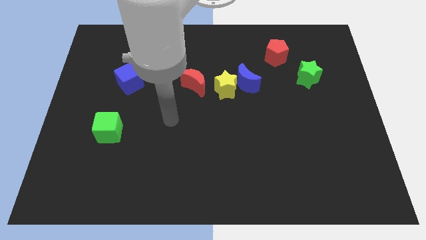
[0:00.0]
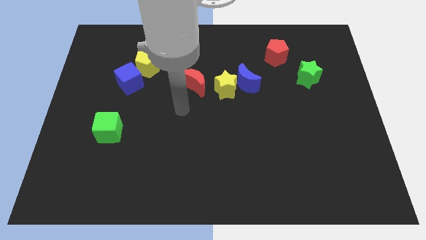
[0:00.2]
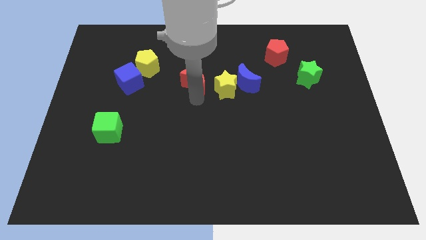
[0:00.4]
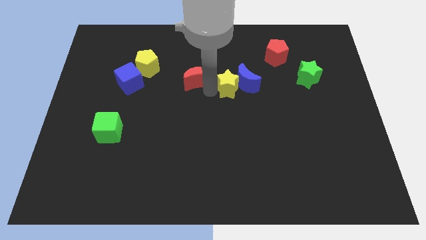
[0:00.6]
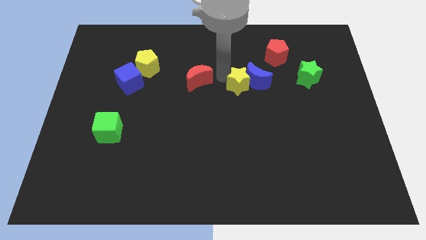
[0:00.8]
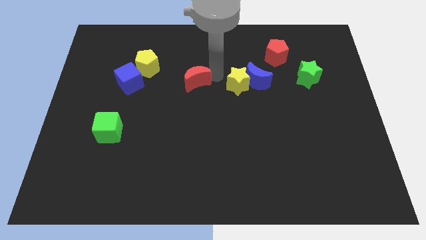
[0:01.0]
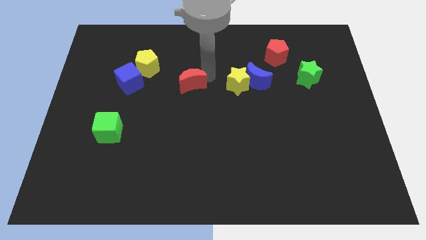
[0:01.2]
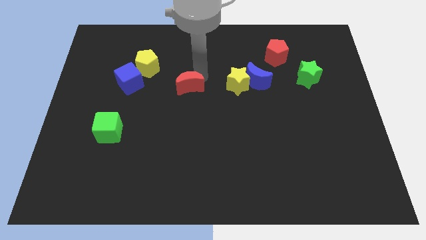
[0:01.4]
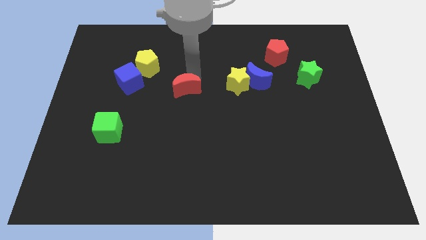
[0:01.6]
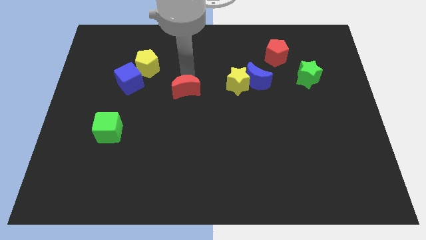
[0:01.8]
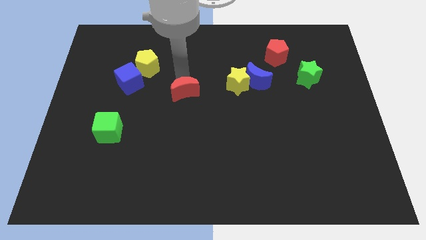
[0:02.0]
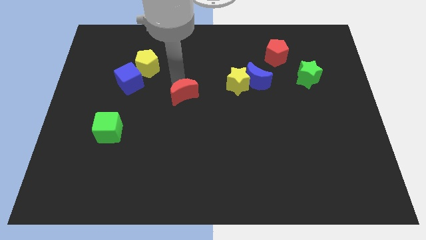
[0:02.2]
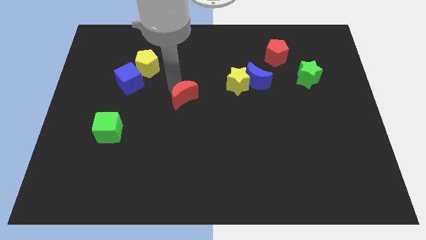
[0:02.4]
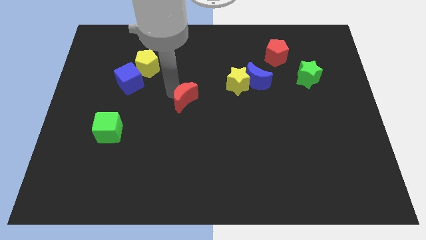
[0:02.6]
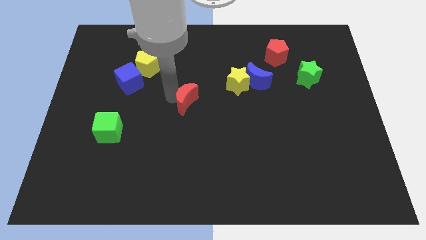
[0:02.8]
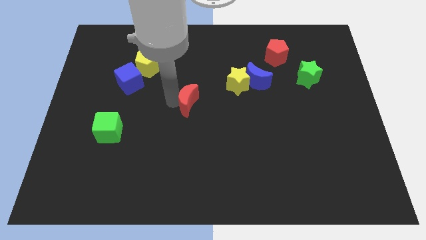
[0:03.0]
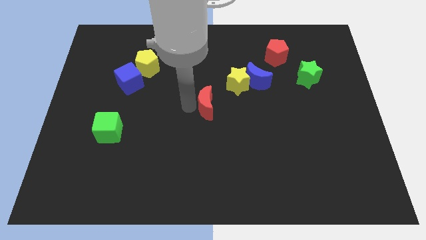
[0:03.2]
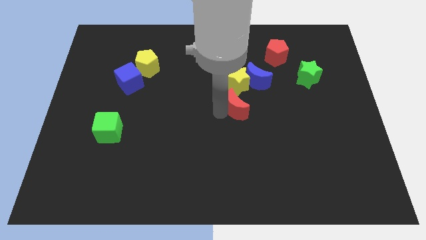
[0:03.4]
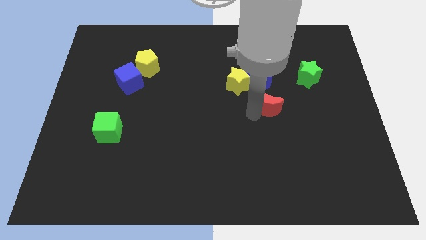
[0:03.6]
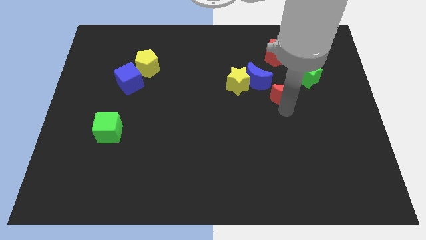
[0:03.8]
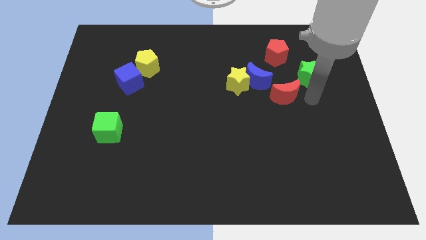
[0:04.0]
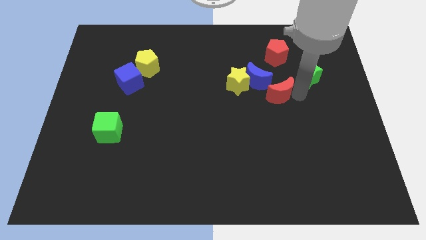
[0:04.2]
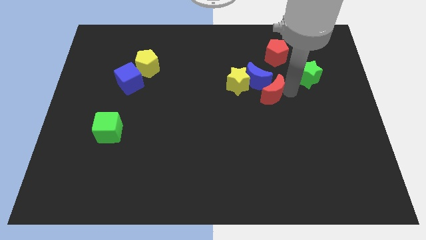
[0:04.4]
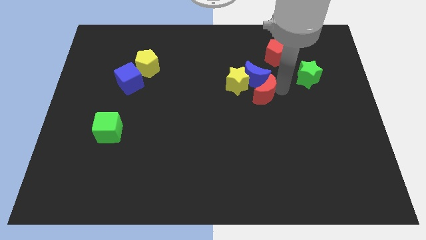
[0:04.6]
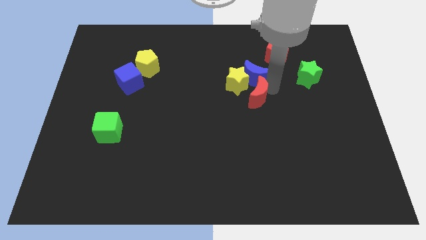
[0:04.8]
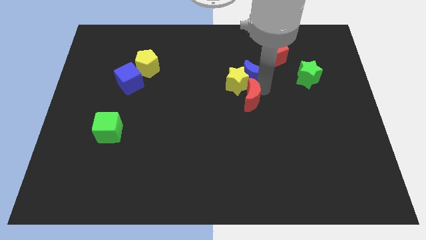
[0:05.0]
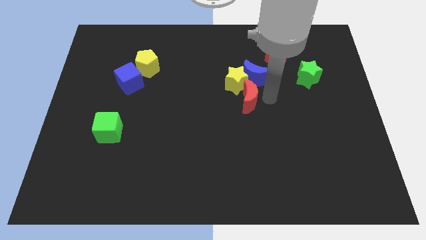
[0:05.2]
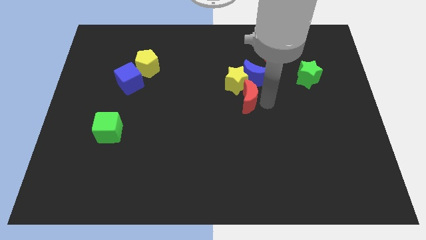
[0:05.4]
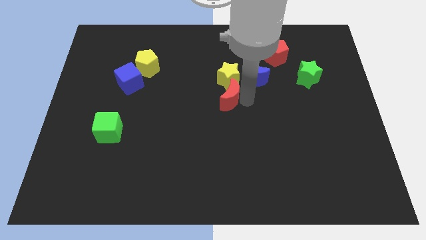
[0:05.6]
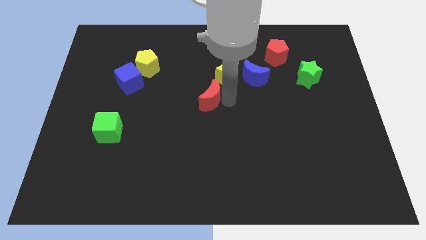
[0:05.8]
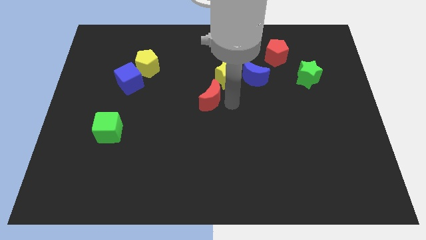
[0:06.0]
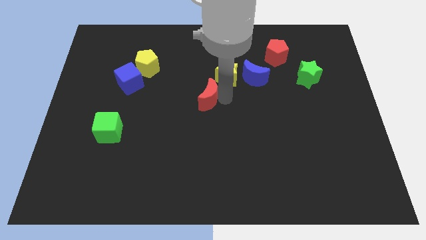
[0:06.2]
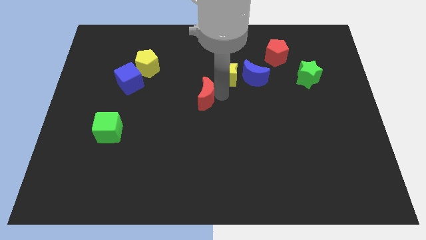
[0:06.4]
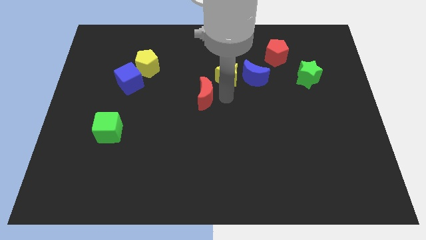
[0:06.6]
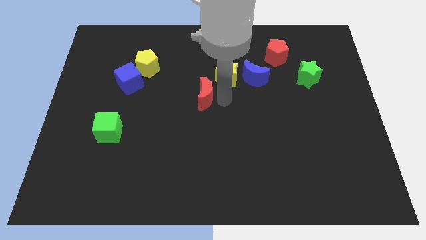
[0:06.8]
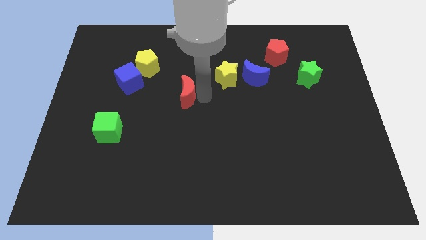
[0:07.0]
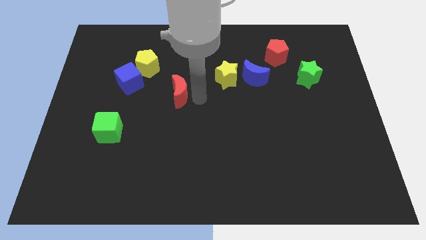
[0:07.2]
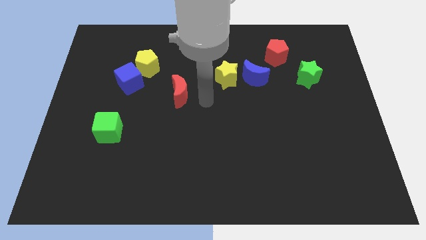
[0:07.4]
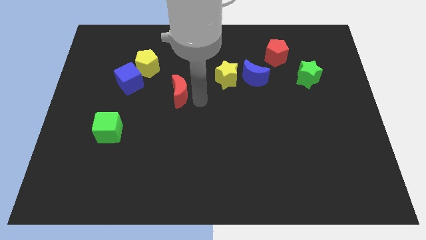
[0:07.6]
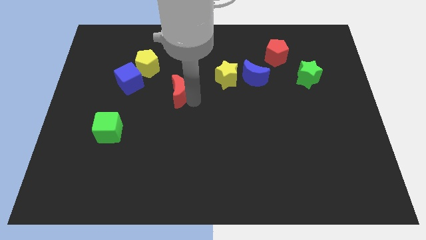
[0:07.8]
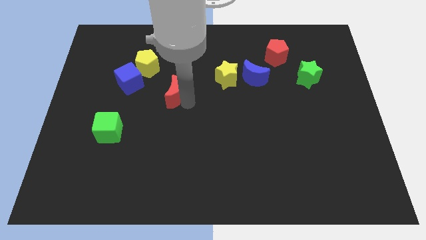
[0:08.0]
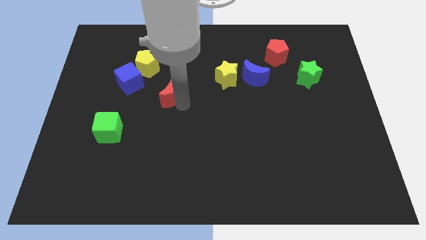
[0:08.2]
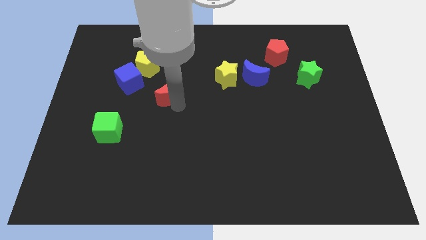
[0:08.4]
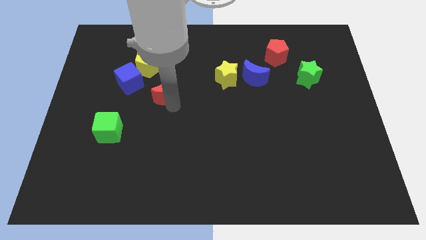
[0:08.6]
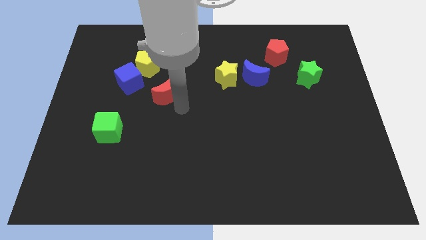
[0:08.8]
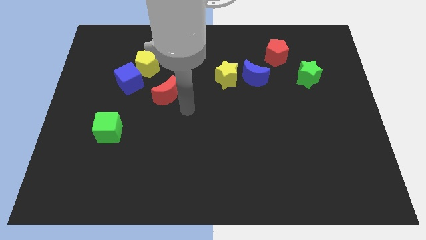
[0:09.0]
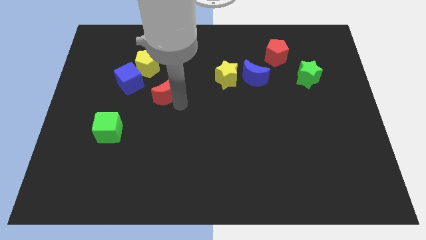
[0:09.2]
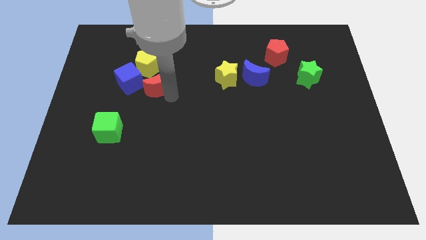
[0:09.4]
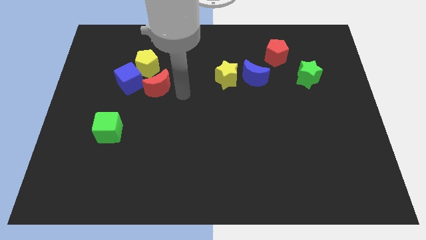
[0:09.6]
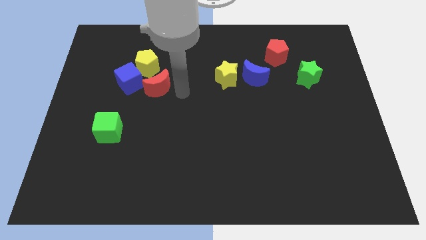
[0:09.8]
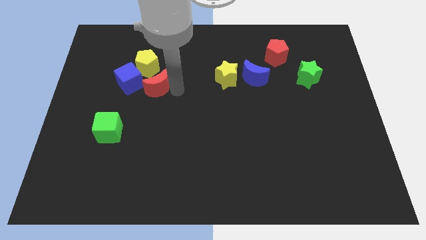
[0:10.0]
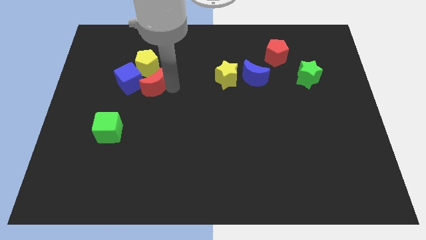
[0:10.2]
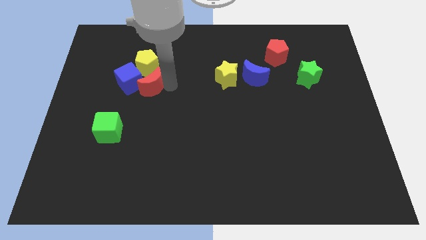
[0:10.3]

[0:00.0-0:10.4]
move the red moon next to the blue cube

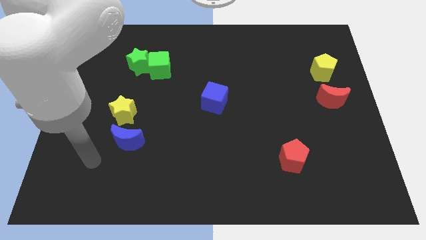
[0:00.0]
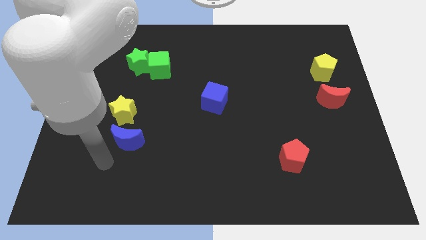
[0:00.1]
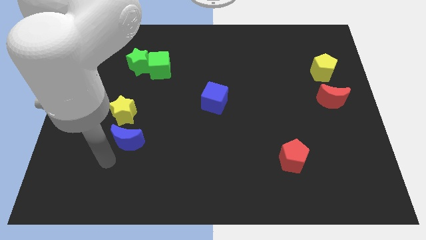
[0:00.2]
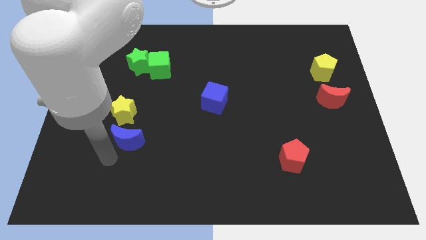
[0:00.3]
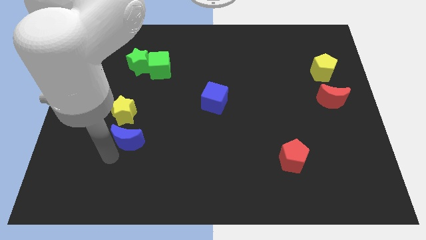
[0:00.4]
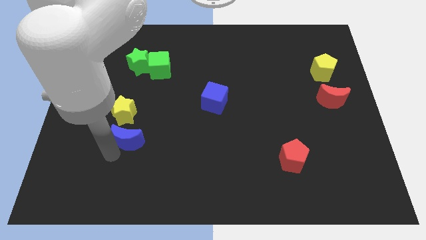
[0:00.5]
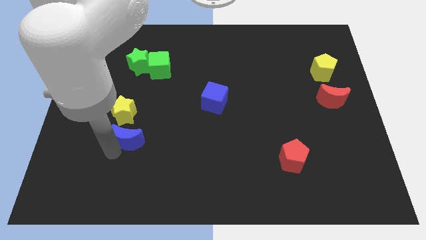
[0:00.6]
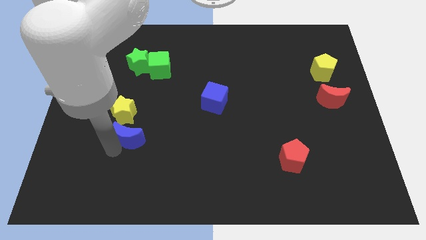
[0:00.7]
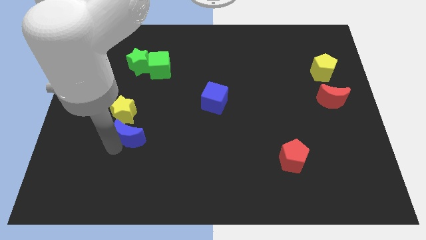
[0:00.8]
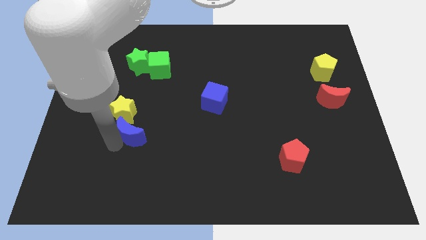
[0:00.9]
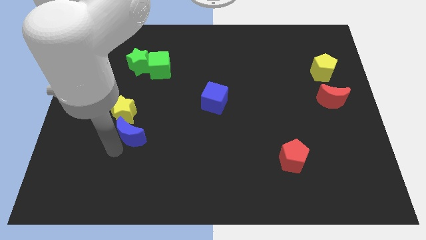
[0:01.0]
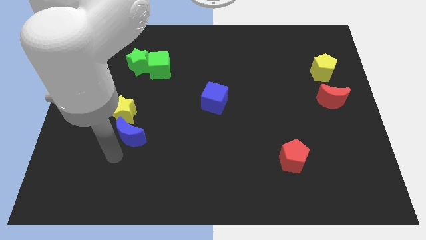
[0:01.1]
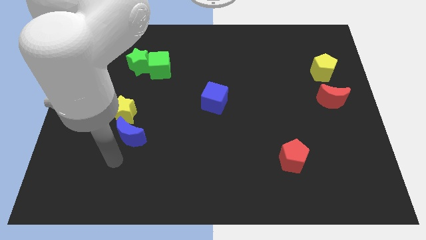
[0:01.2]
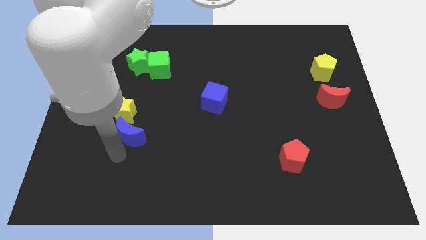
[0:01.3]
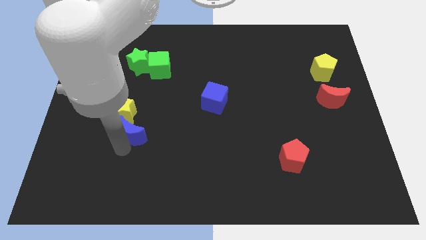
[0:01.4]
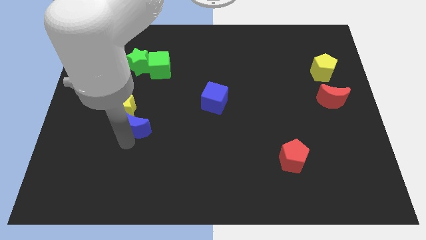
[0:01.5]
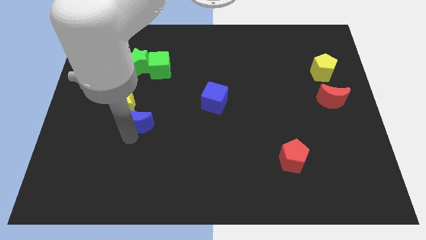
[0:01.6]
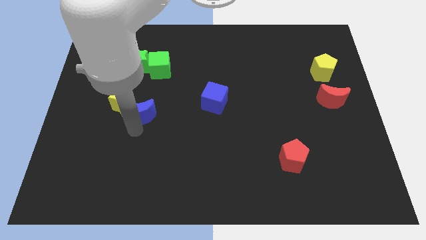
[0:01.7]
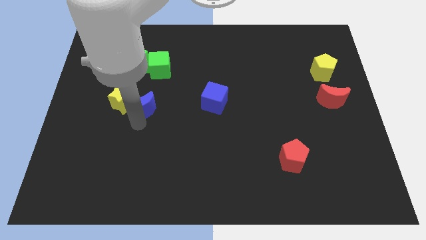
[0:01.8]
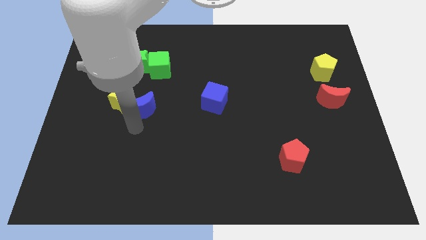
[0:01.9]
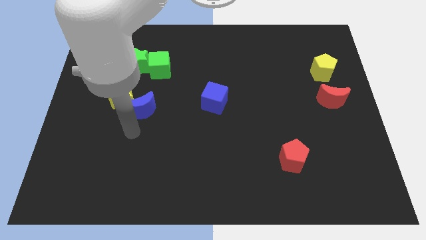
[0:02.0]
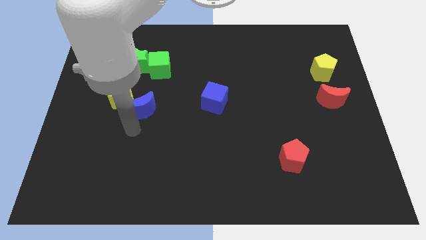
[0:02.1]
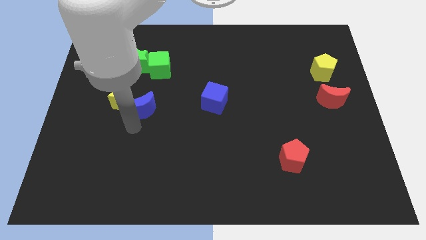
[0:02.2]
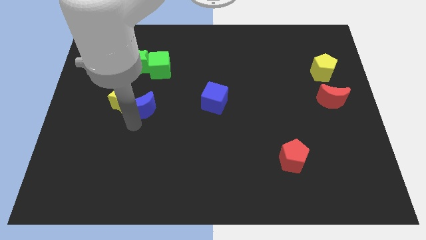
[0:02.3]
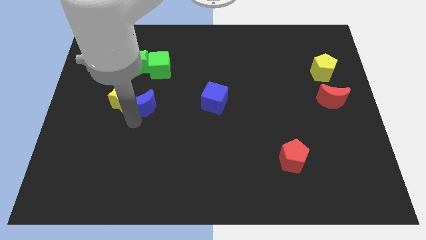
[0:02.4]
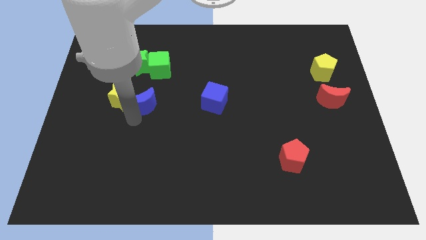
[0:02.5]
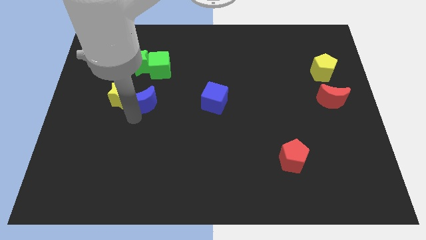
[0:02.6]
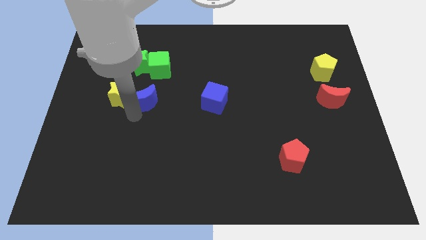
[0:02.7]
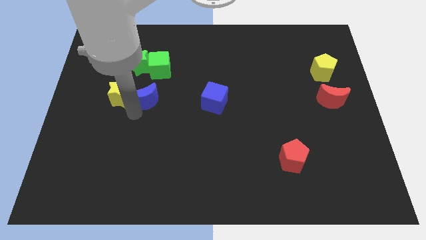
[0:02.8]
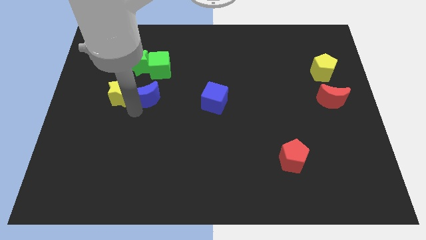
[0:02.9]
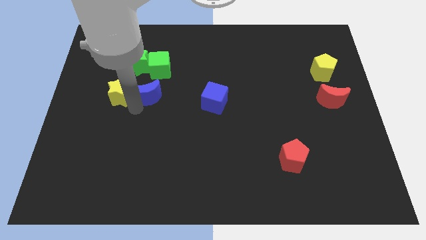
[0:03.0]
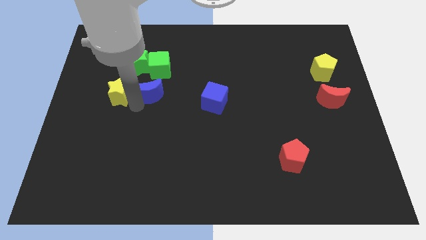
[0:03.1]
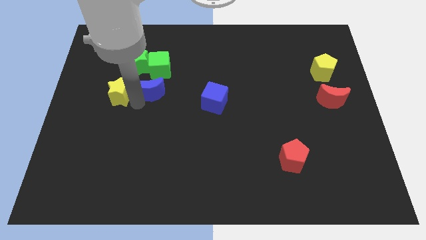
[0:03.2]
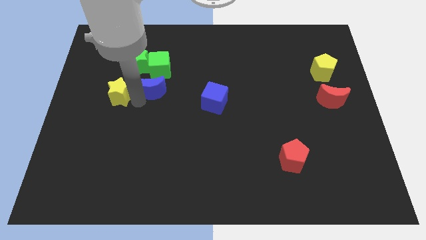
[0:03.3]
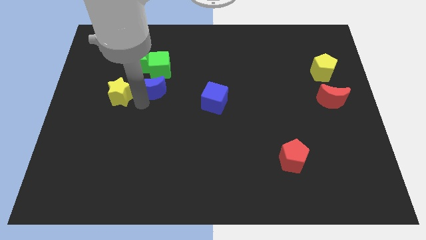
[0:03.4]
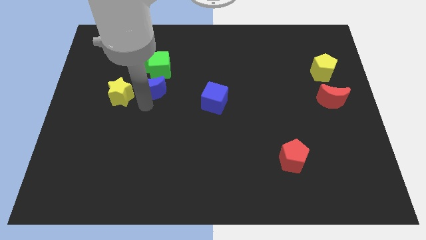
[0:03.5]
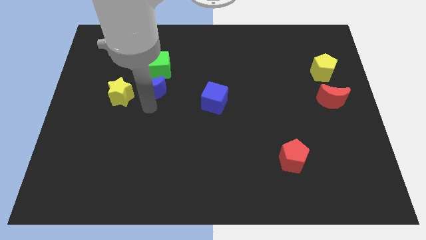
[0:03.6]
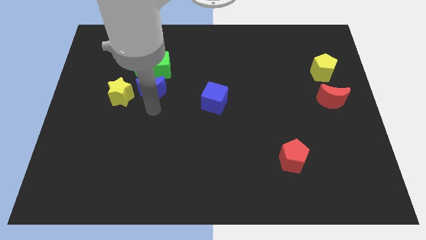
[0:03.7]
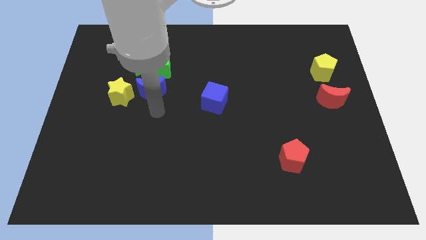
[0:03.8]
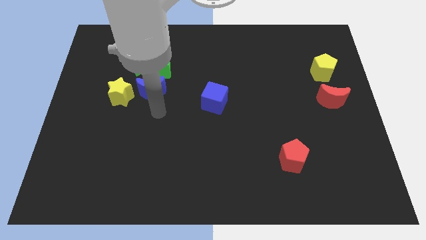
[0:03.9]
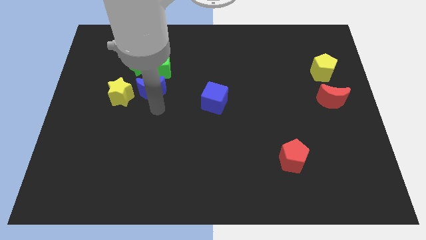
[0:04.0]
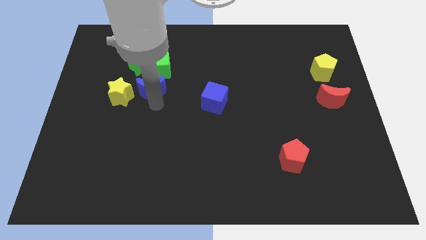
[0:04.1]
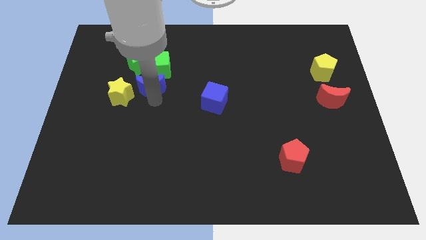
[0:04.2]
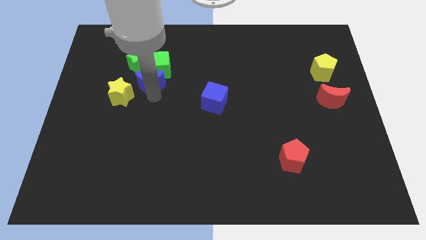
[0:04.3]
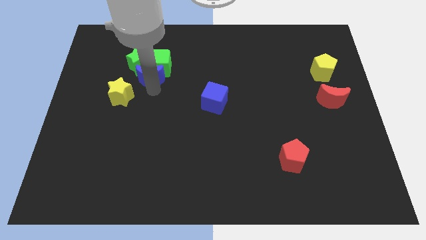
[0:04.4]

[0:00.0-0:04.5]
put the blue moon close to the green star
